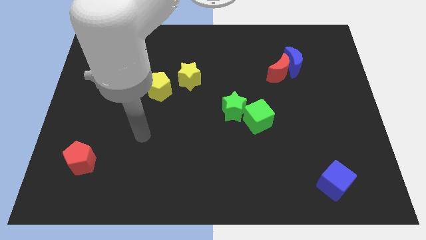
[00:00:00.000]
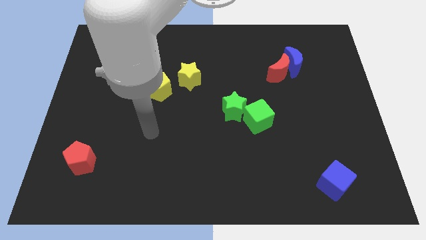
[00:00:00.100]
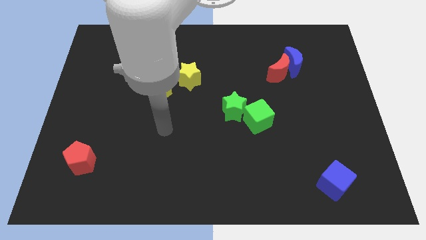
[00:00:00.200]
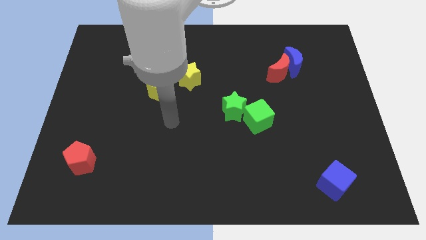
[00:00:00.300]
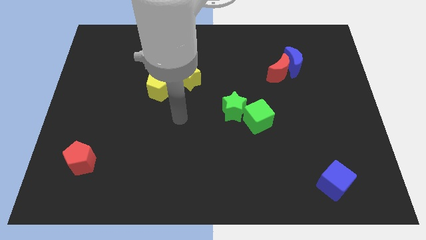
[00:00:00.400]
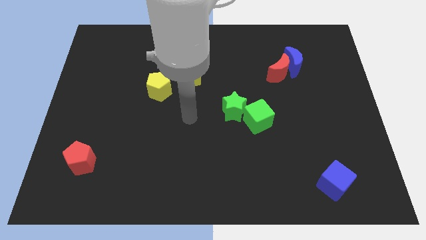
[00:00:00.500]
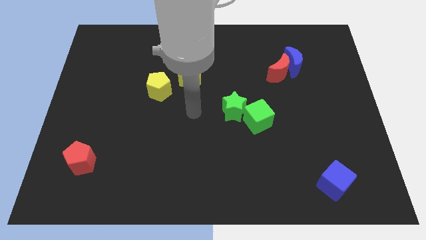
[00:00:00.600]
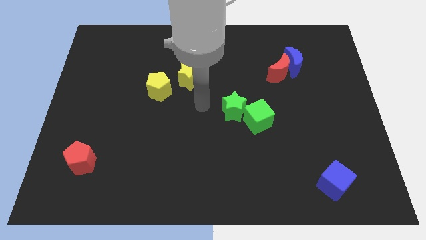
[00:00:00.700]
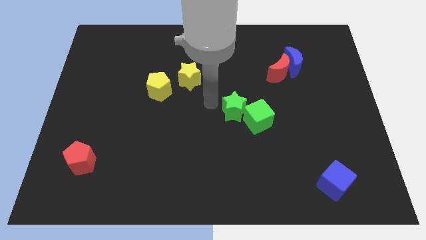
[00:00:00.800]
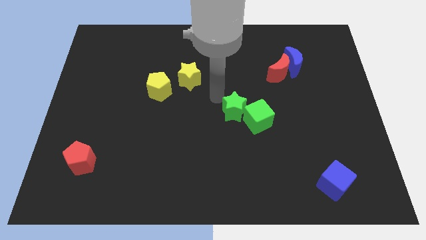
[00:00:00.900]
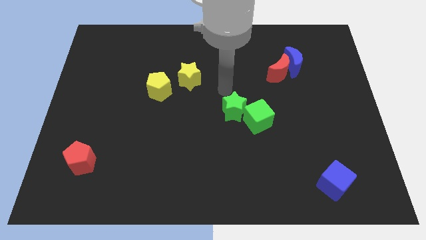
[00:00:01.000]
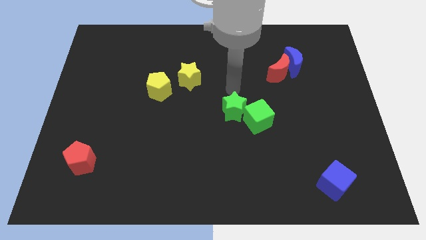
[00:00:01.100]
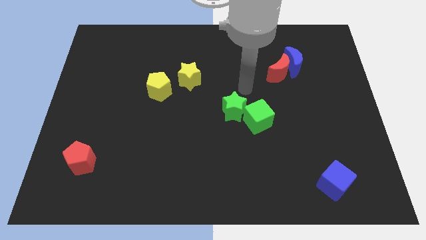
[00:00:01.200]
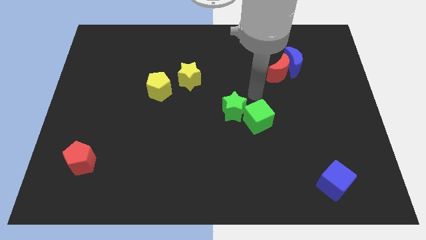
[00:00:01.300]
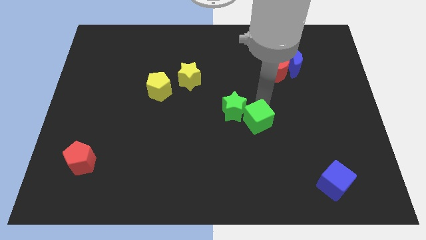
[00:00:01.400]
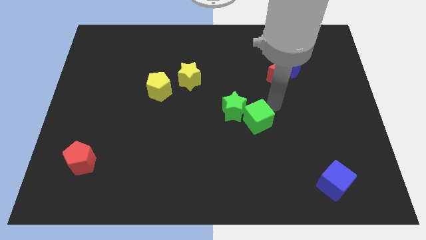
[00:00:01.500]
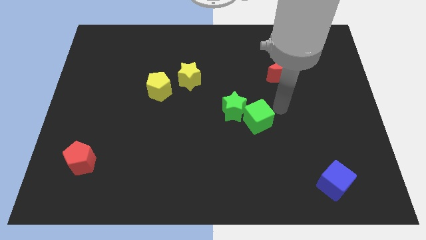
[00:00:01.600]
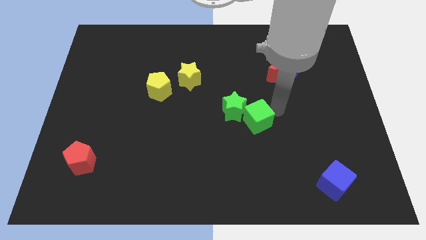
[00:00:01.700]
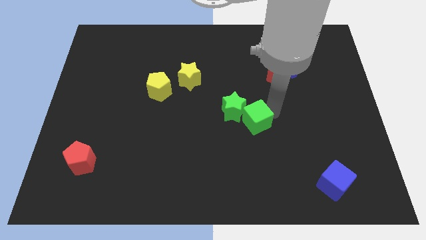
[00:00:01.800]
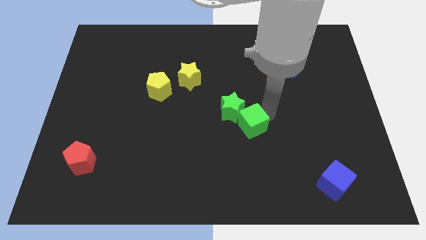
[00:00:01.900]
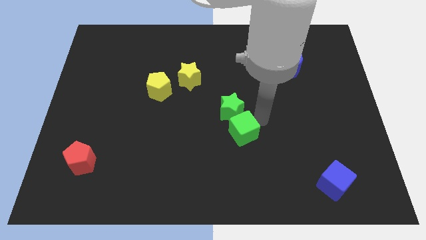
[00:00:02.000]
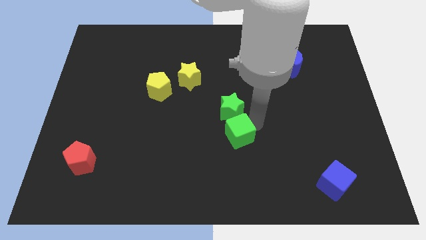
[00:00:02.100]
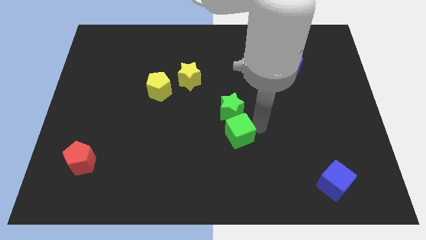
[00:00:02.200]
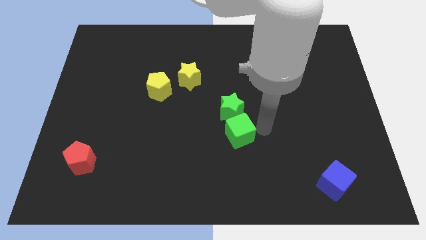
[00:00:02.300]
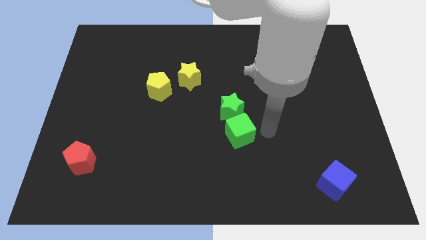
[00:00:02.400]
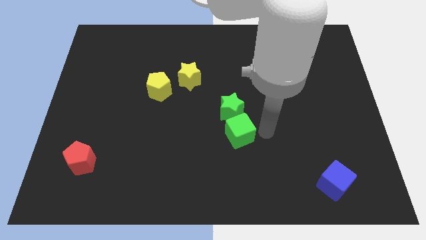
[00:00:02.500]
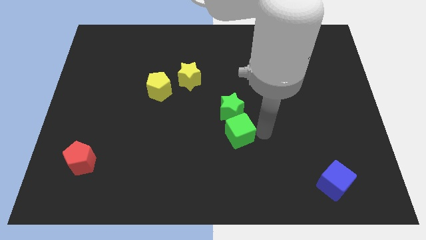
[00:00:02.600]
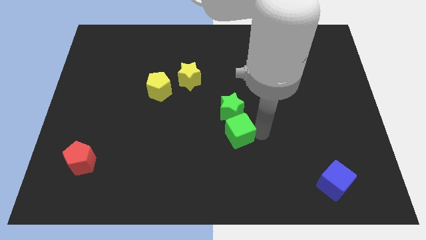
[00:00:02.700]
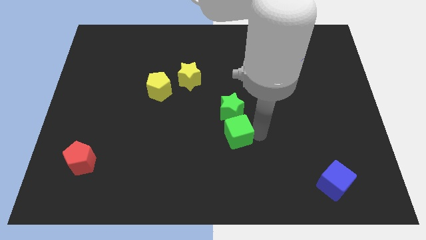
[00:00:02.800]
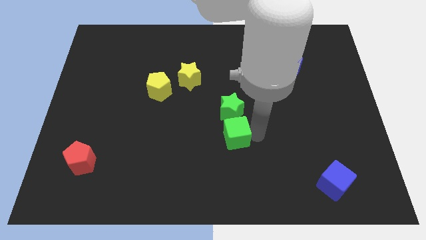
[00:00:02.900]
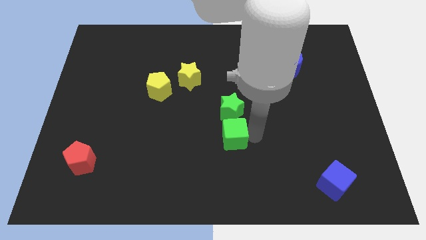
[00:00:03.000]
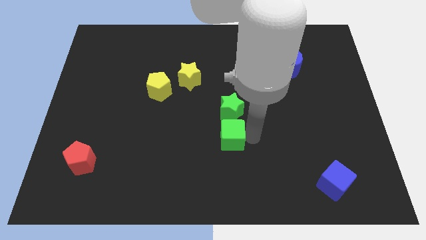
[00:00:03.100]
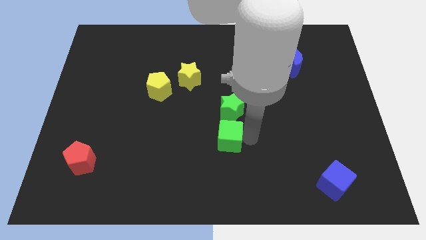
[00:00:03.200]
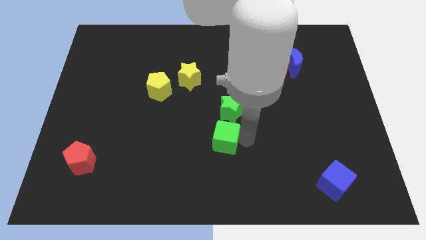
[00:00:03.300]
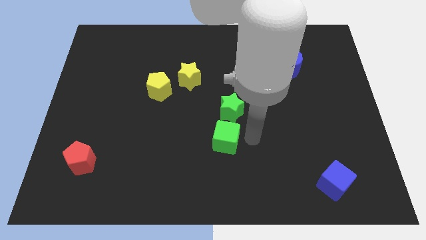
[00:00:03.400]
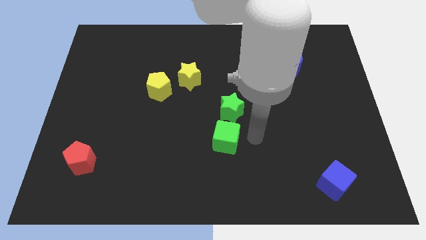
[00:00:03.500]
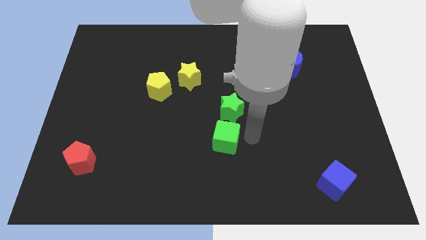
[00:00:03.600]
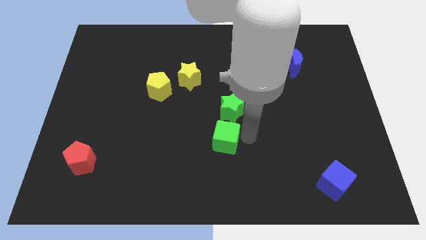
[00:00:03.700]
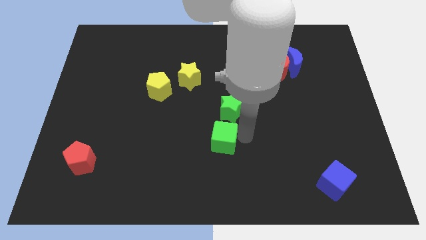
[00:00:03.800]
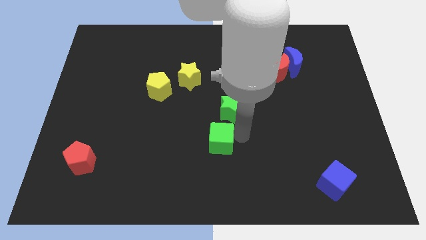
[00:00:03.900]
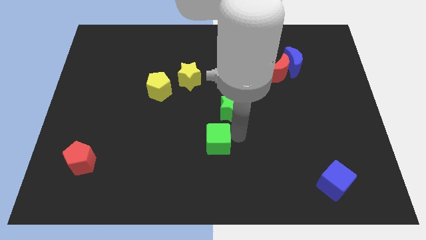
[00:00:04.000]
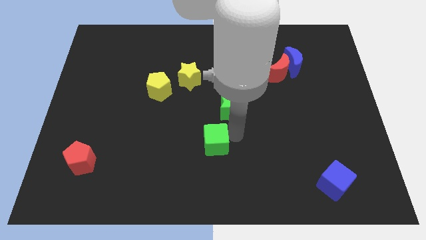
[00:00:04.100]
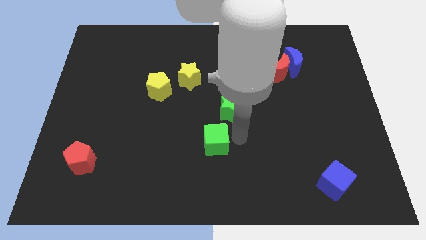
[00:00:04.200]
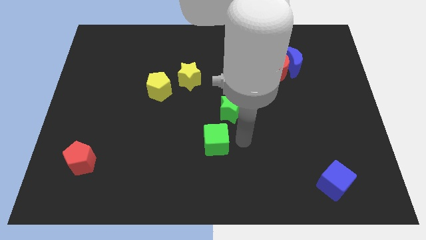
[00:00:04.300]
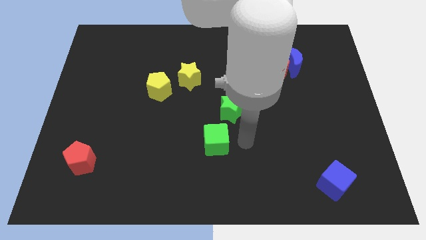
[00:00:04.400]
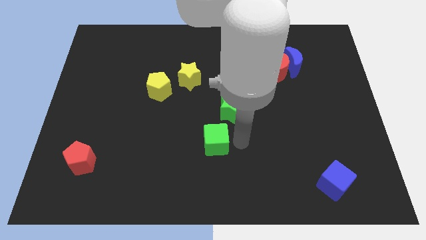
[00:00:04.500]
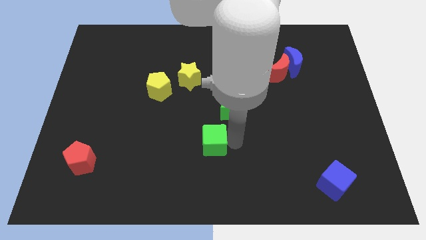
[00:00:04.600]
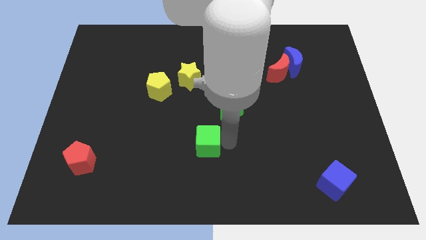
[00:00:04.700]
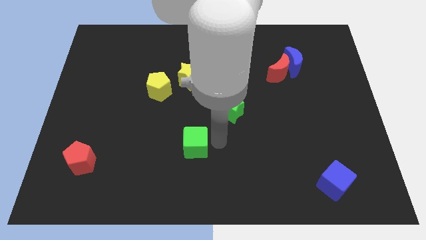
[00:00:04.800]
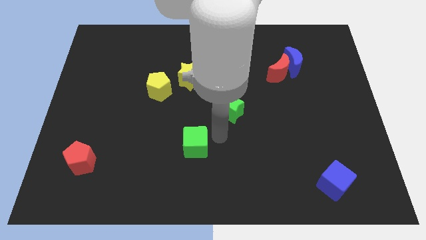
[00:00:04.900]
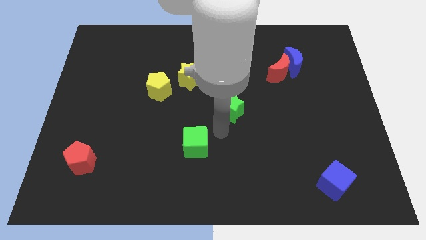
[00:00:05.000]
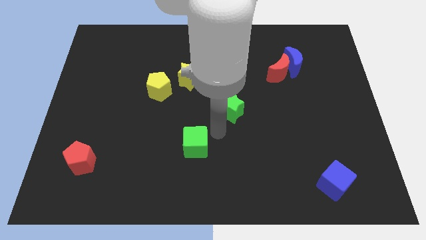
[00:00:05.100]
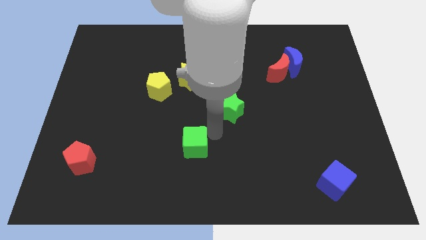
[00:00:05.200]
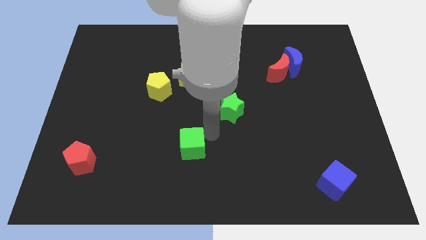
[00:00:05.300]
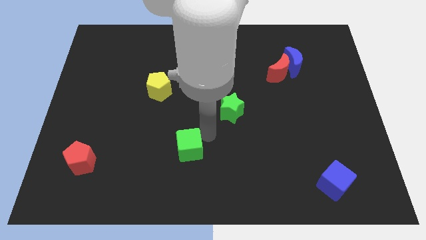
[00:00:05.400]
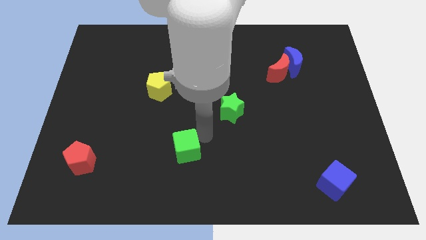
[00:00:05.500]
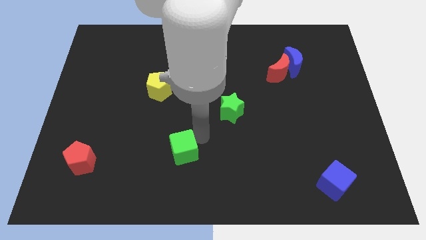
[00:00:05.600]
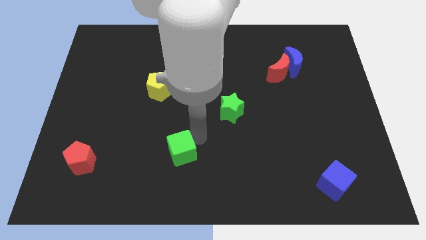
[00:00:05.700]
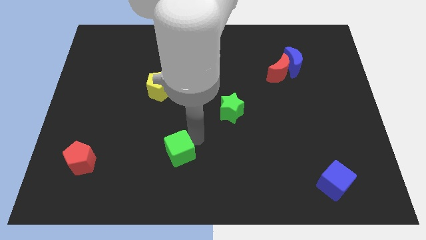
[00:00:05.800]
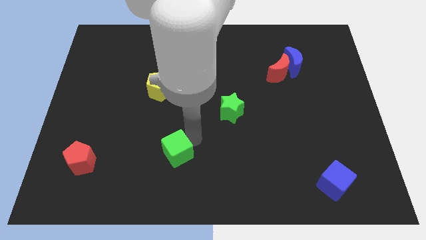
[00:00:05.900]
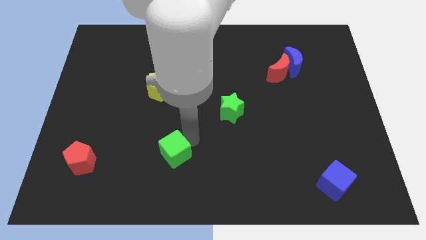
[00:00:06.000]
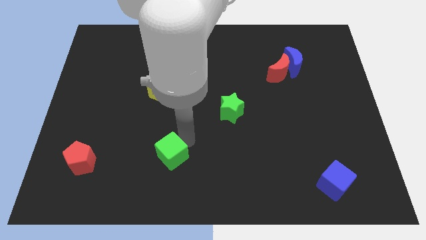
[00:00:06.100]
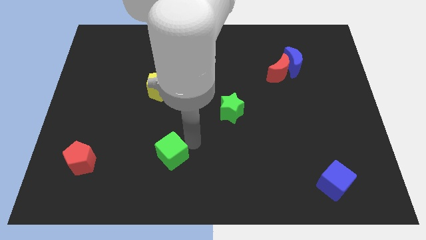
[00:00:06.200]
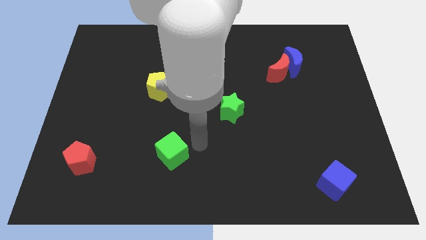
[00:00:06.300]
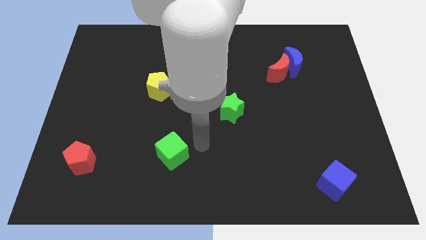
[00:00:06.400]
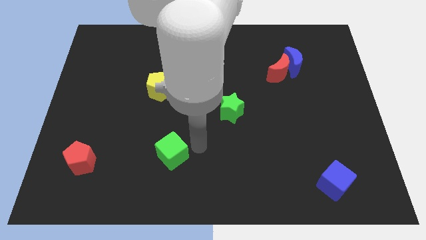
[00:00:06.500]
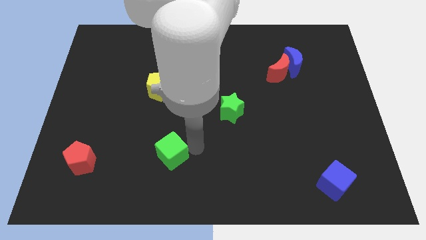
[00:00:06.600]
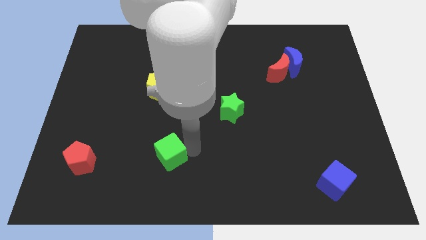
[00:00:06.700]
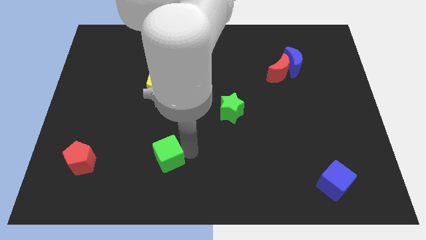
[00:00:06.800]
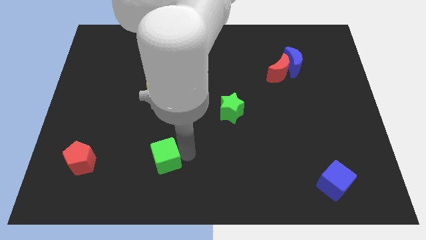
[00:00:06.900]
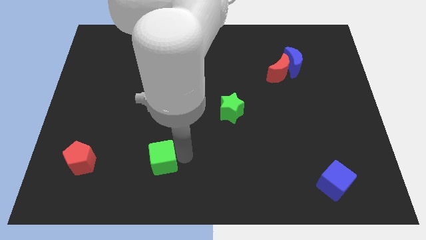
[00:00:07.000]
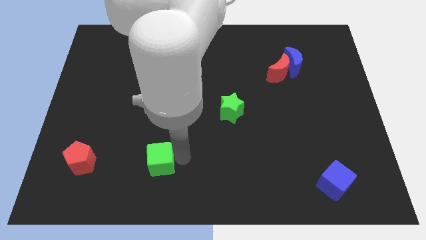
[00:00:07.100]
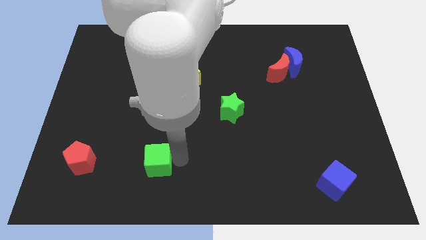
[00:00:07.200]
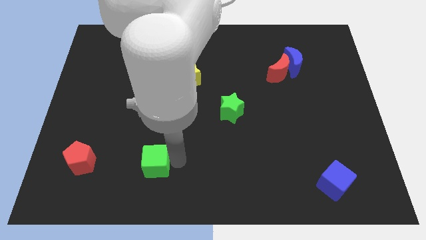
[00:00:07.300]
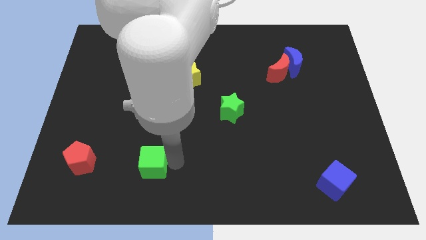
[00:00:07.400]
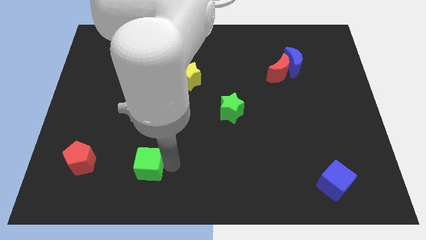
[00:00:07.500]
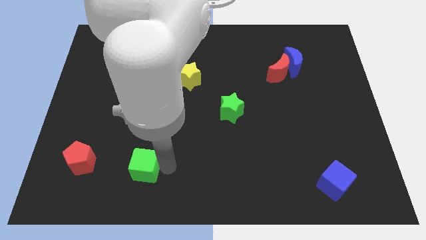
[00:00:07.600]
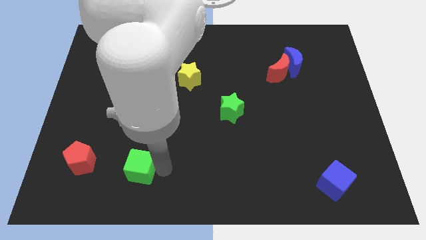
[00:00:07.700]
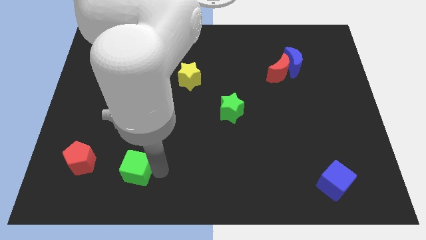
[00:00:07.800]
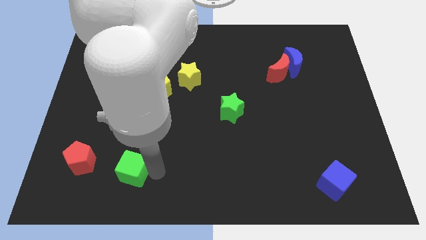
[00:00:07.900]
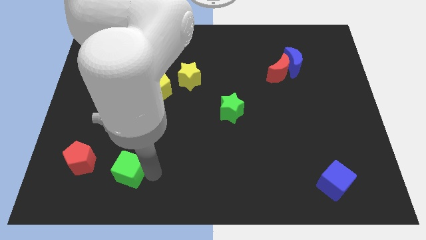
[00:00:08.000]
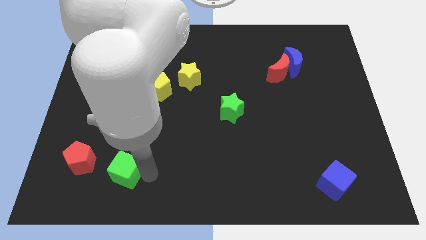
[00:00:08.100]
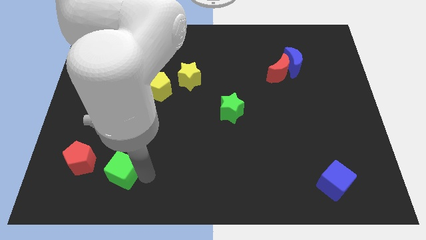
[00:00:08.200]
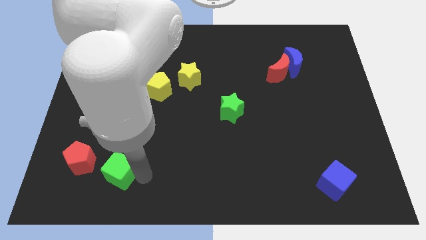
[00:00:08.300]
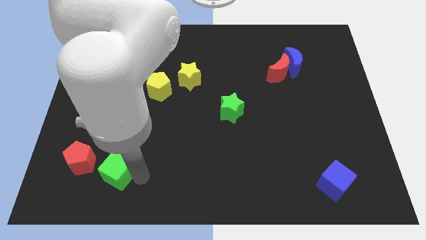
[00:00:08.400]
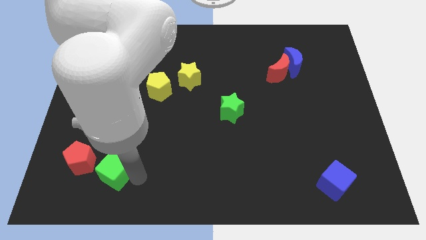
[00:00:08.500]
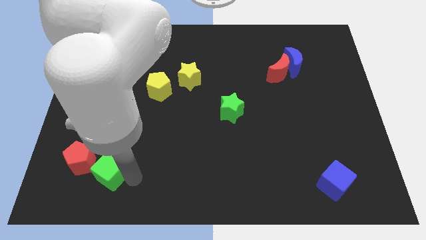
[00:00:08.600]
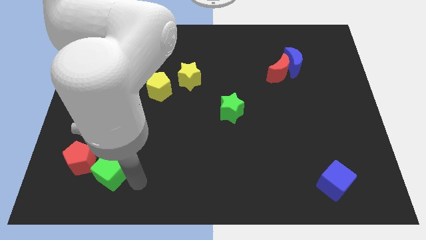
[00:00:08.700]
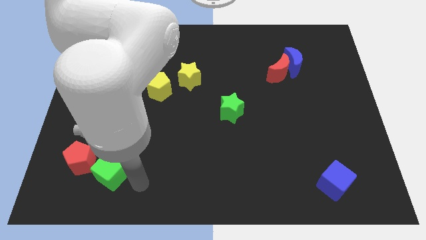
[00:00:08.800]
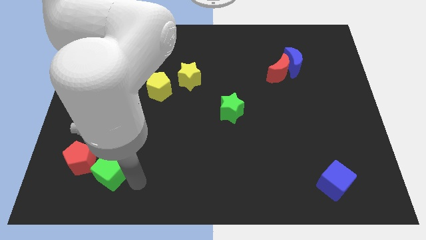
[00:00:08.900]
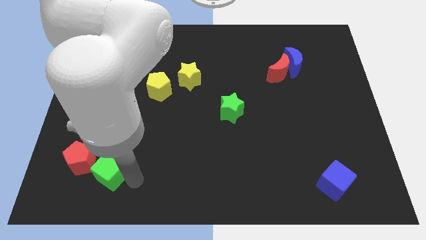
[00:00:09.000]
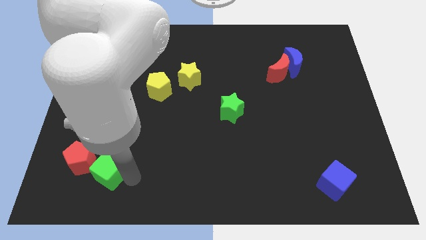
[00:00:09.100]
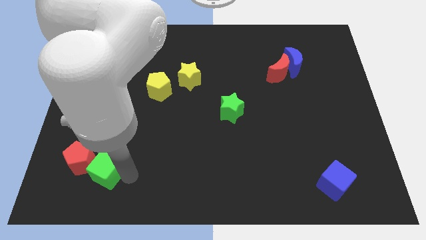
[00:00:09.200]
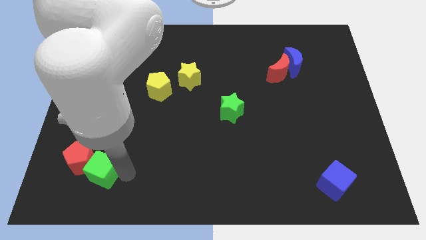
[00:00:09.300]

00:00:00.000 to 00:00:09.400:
put the green cube close to the red pentagon
